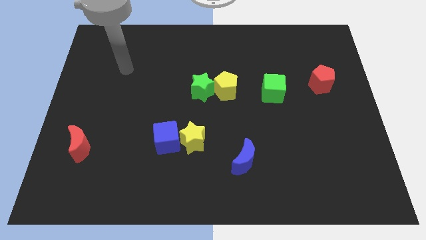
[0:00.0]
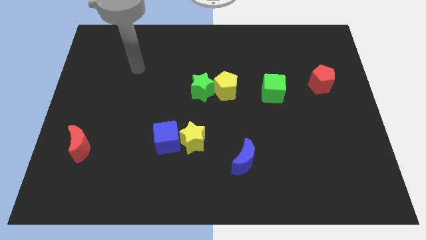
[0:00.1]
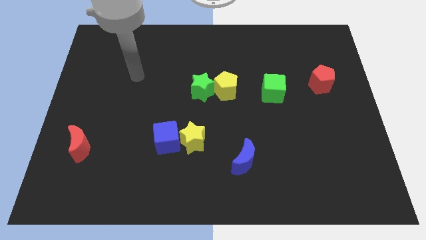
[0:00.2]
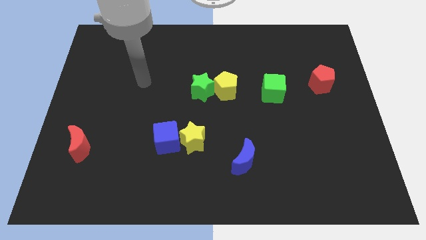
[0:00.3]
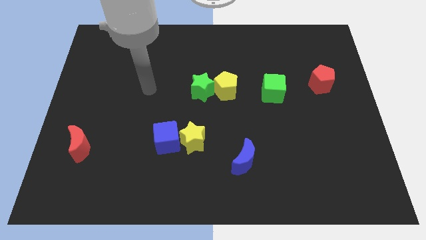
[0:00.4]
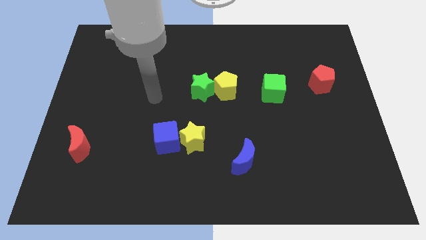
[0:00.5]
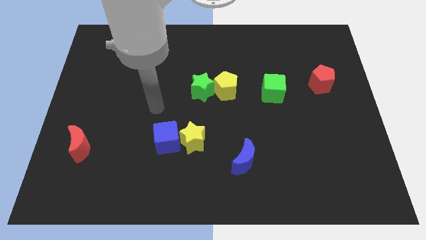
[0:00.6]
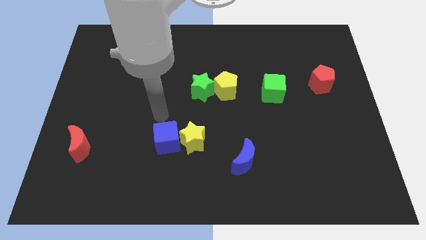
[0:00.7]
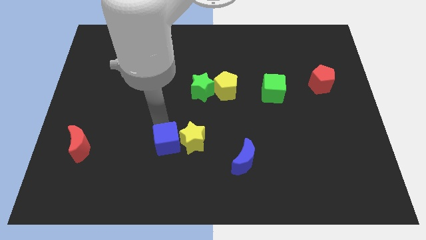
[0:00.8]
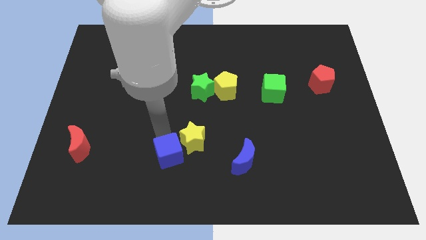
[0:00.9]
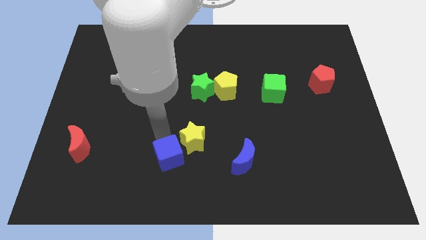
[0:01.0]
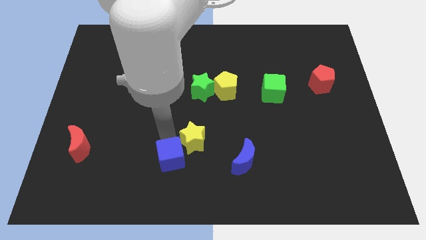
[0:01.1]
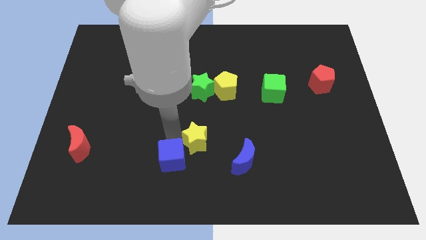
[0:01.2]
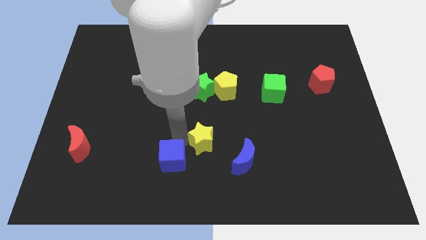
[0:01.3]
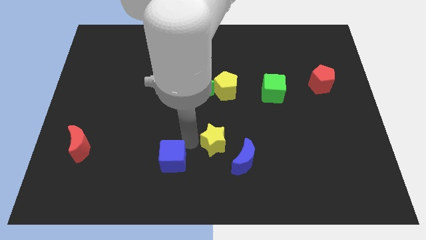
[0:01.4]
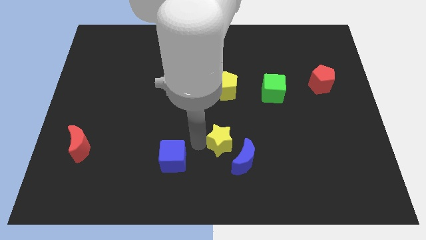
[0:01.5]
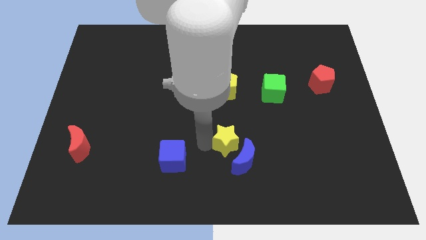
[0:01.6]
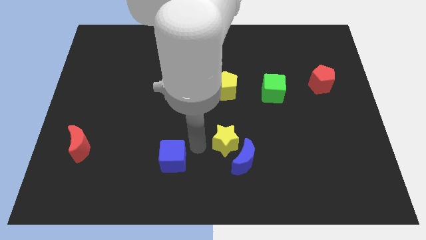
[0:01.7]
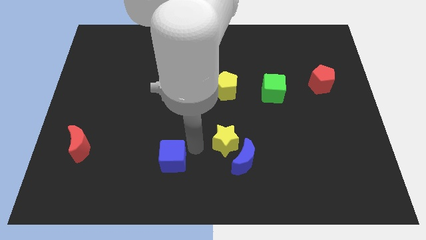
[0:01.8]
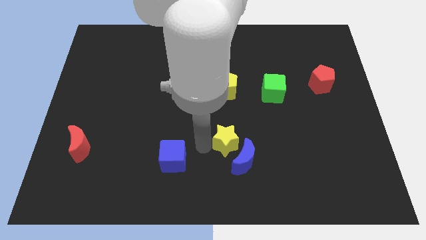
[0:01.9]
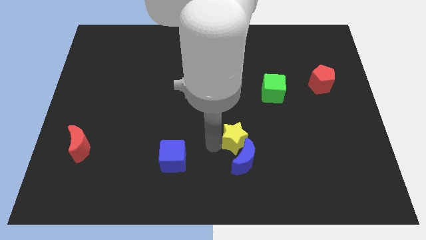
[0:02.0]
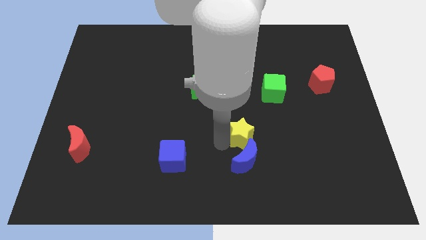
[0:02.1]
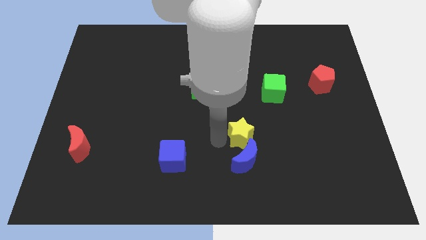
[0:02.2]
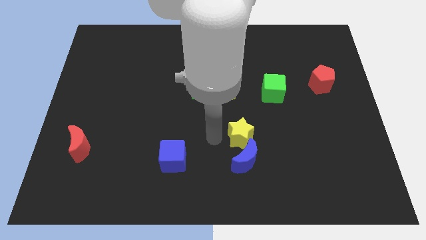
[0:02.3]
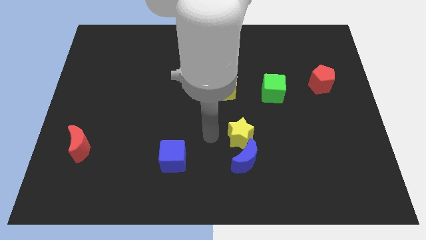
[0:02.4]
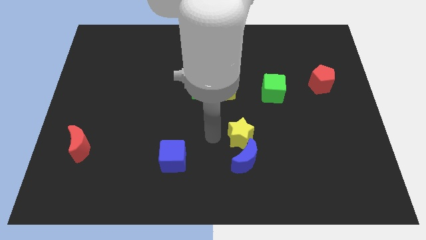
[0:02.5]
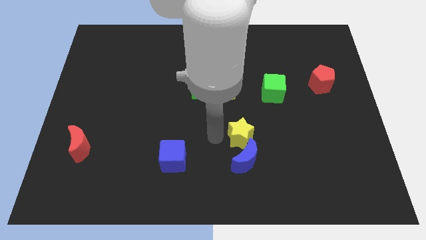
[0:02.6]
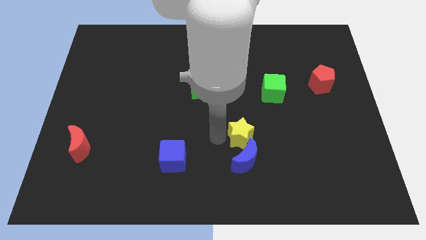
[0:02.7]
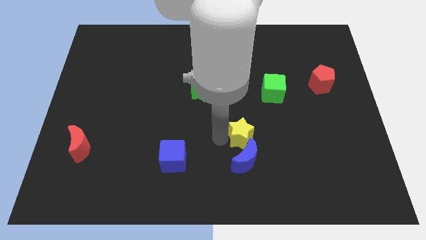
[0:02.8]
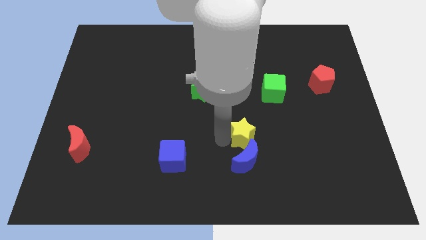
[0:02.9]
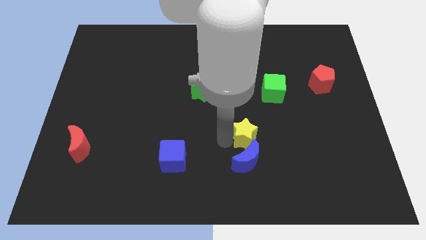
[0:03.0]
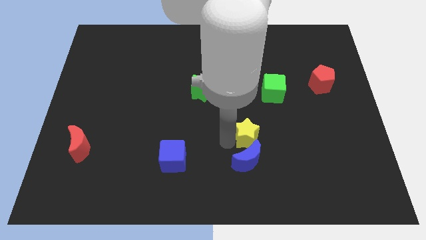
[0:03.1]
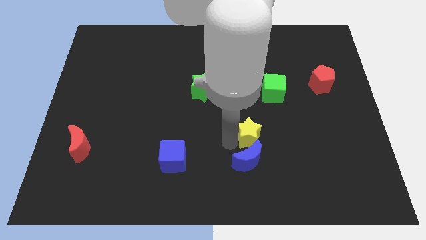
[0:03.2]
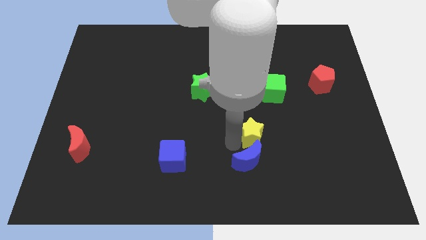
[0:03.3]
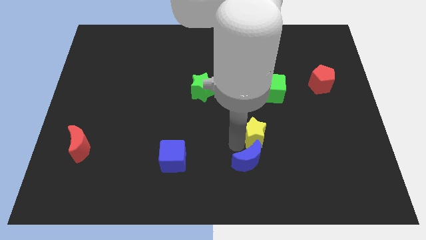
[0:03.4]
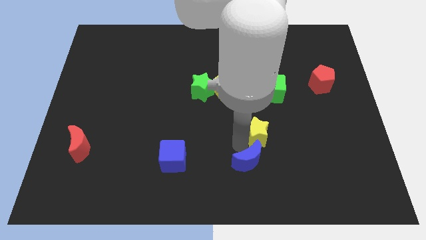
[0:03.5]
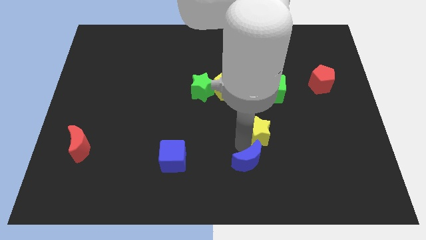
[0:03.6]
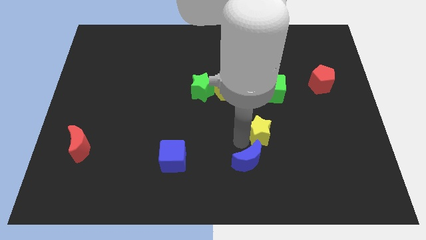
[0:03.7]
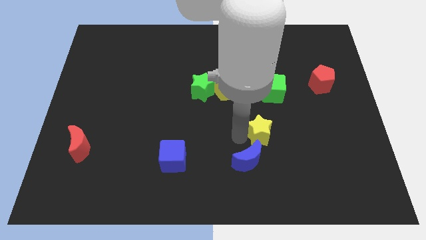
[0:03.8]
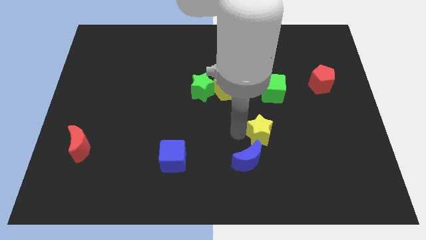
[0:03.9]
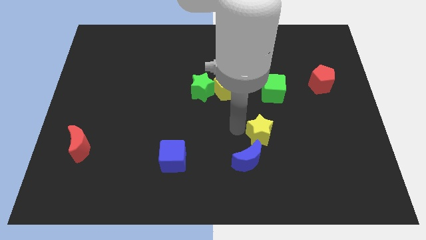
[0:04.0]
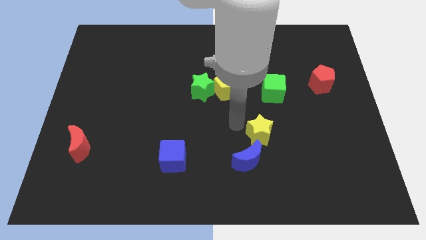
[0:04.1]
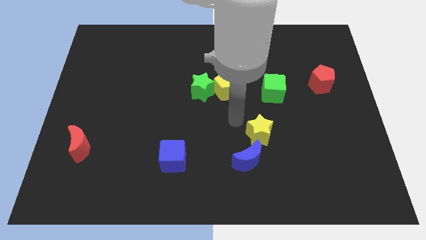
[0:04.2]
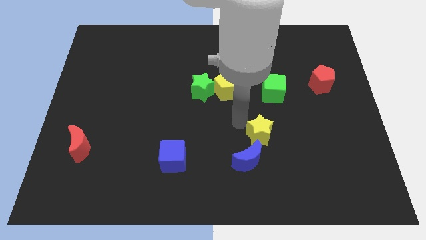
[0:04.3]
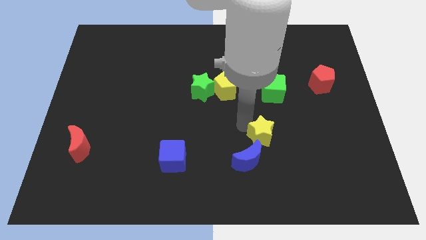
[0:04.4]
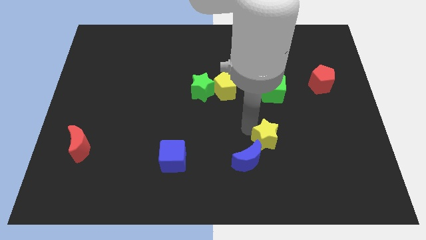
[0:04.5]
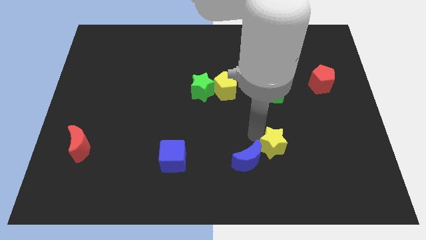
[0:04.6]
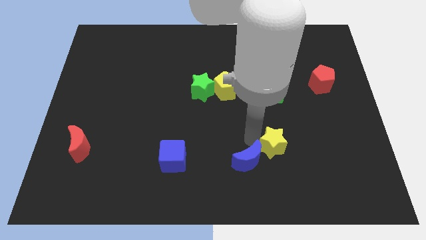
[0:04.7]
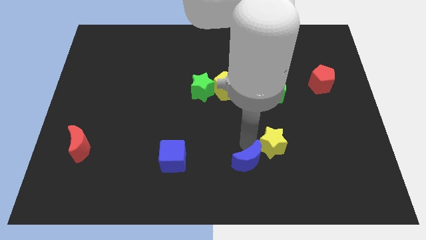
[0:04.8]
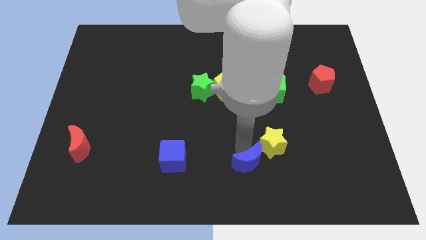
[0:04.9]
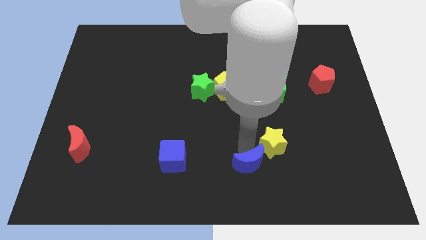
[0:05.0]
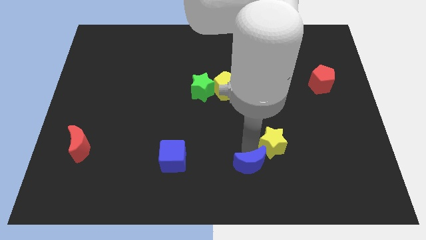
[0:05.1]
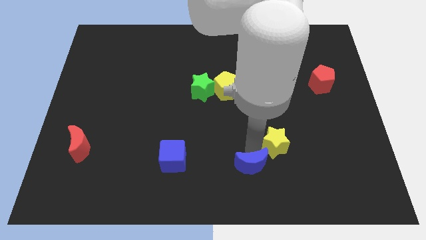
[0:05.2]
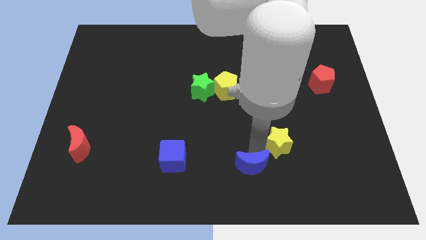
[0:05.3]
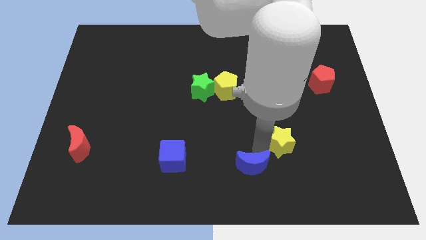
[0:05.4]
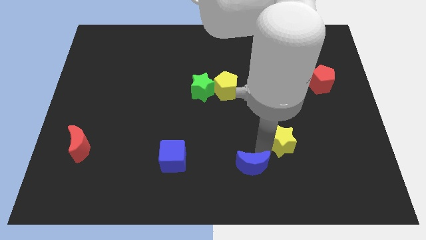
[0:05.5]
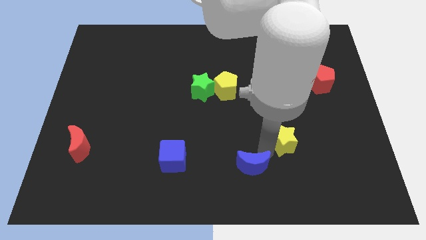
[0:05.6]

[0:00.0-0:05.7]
push the yellow star right

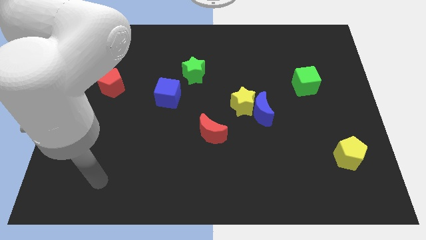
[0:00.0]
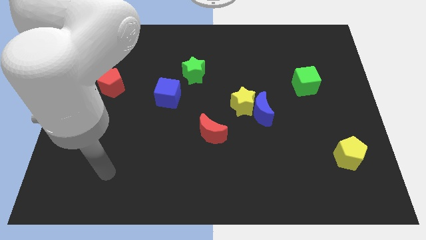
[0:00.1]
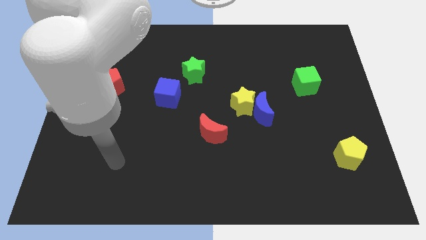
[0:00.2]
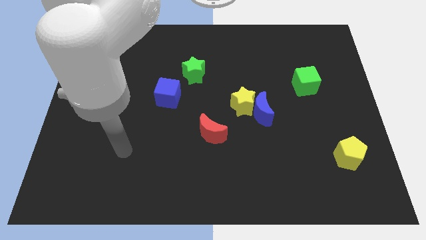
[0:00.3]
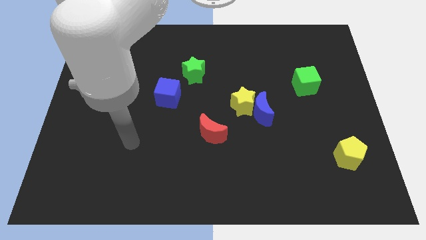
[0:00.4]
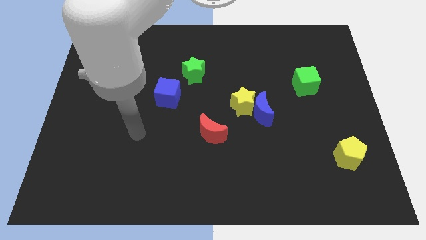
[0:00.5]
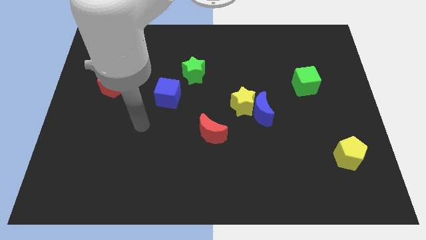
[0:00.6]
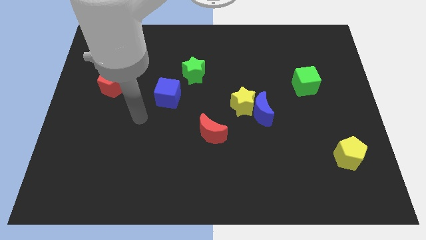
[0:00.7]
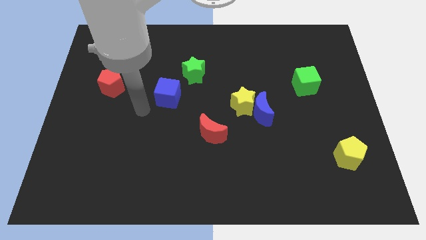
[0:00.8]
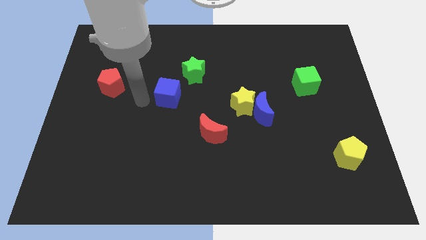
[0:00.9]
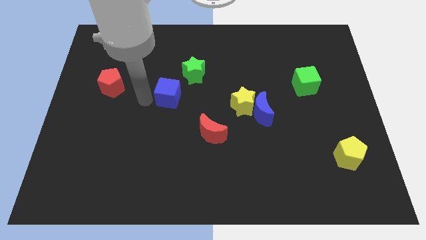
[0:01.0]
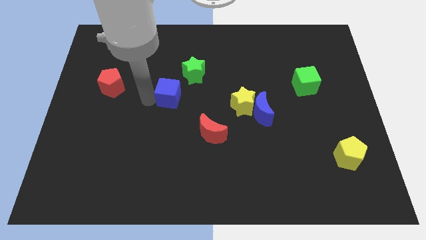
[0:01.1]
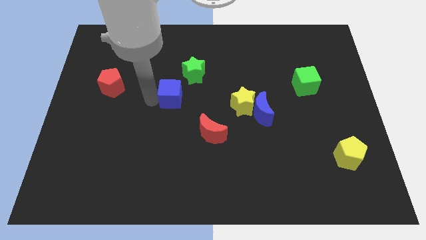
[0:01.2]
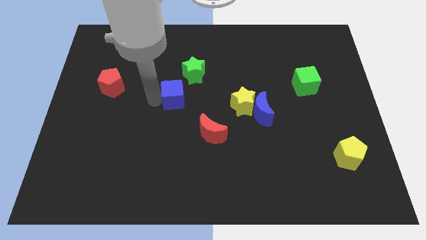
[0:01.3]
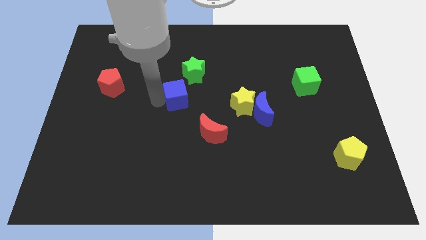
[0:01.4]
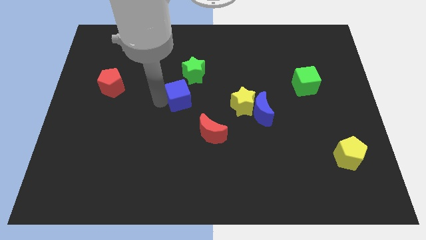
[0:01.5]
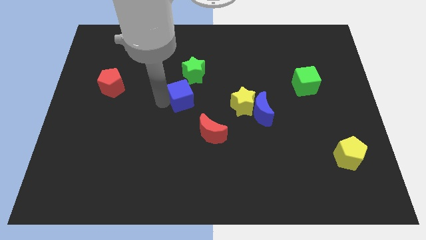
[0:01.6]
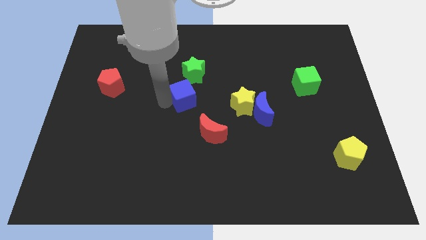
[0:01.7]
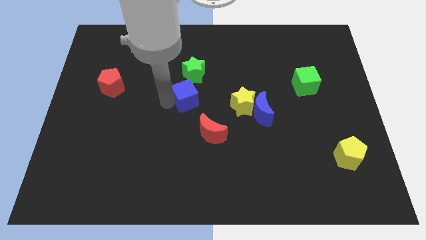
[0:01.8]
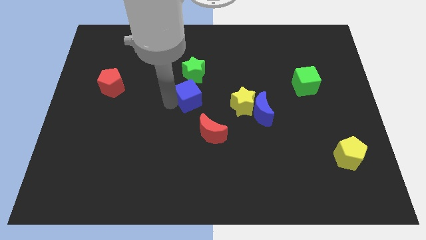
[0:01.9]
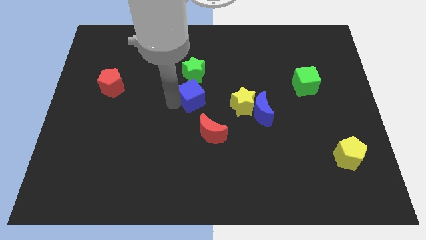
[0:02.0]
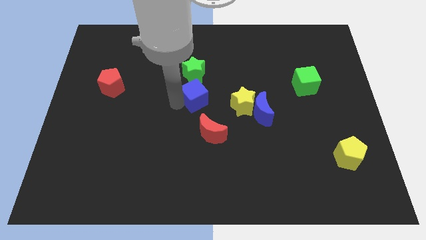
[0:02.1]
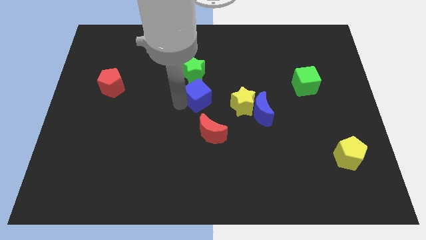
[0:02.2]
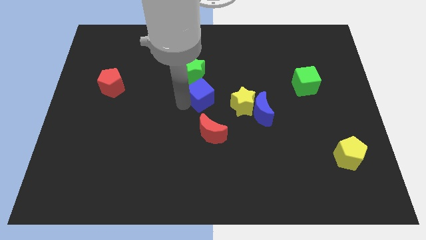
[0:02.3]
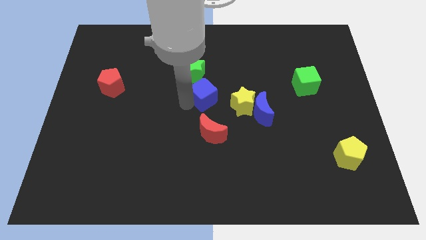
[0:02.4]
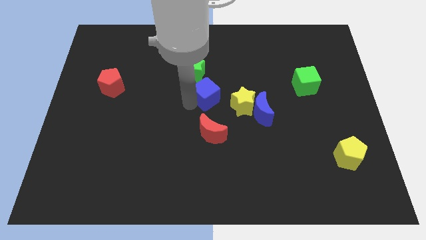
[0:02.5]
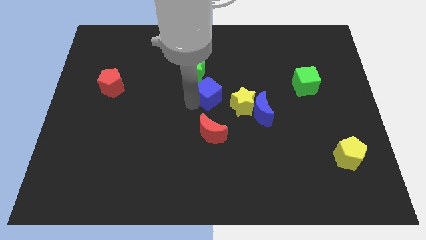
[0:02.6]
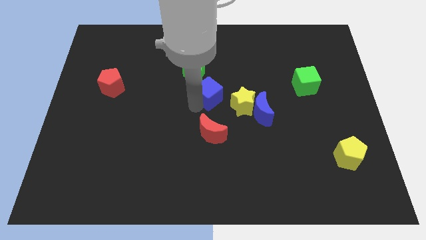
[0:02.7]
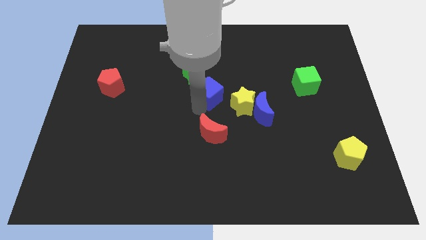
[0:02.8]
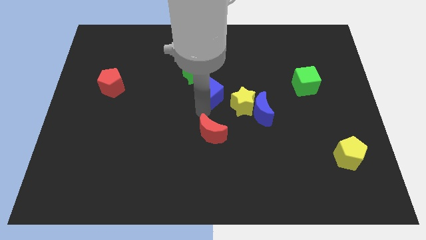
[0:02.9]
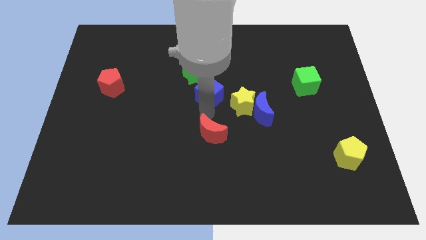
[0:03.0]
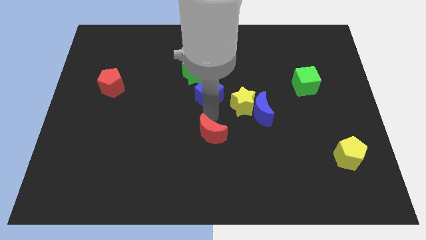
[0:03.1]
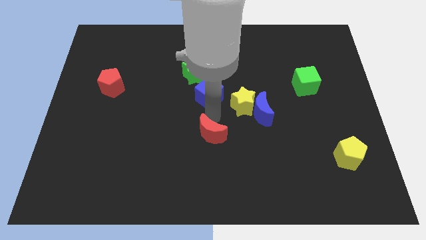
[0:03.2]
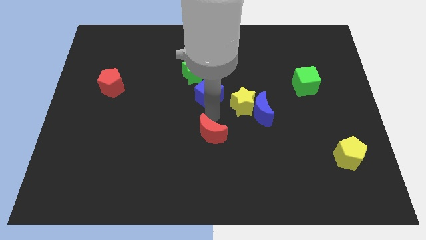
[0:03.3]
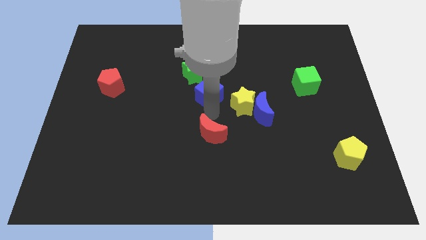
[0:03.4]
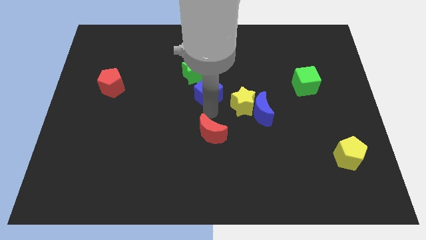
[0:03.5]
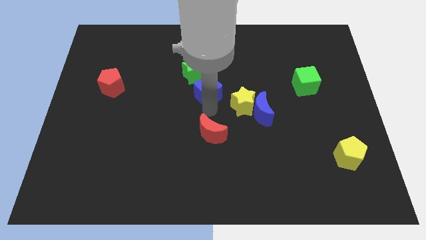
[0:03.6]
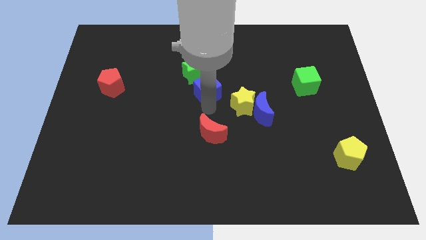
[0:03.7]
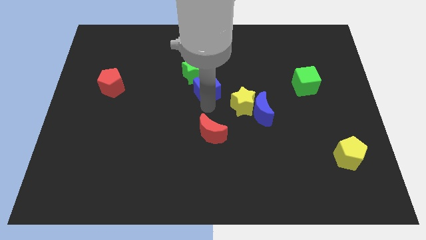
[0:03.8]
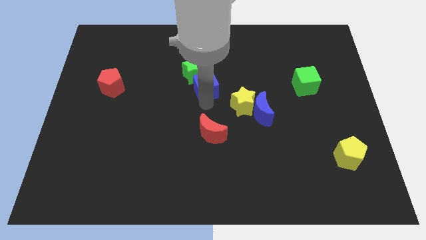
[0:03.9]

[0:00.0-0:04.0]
slightly slide the blue cube up and then to the right
